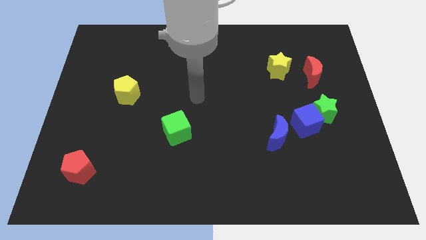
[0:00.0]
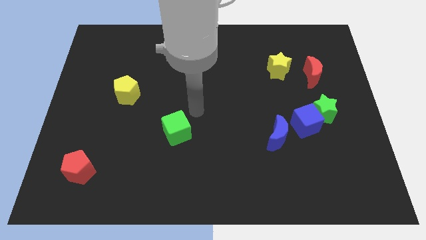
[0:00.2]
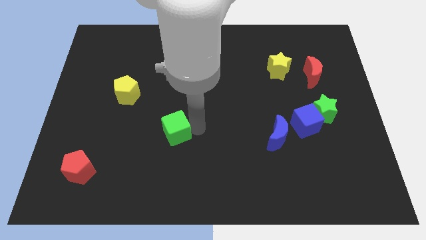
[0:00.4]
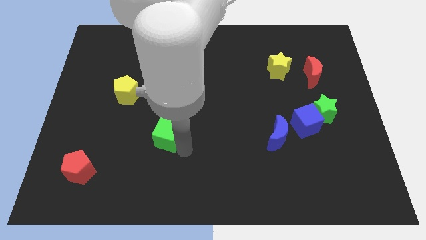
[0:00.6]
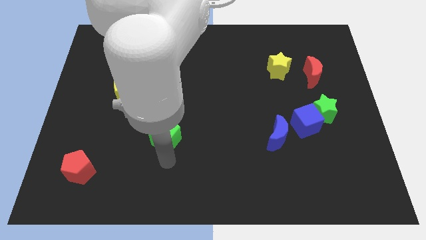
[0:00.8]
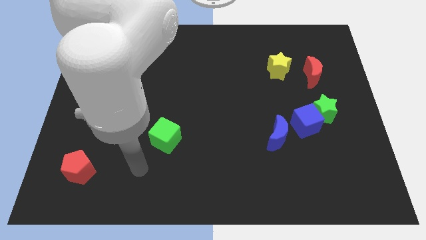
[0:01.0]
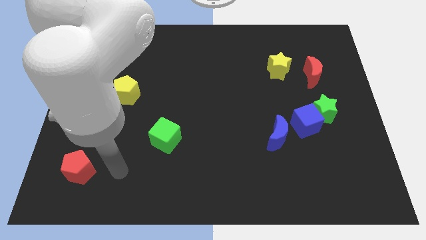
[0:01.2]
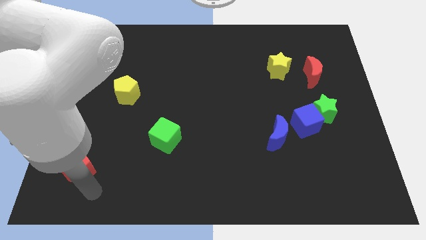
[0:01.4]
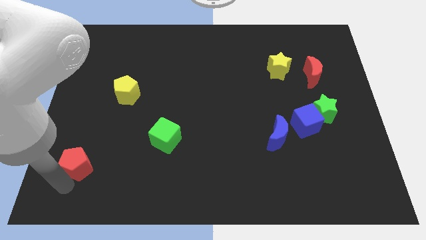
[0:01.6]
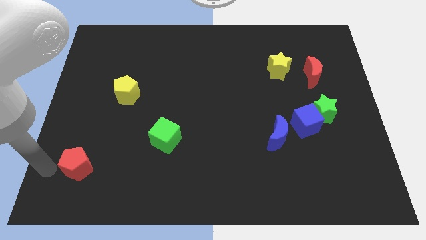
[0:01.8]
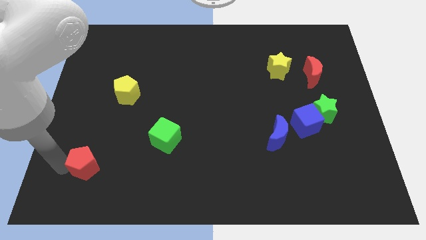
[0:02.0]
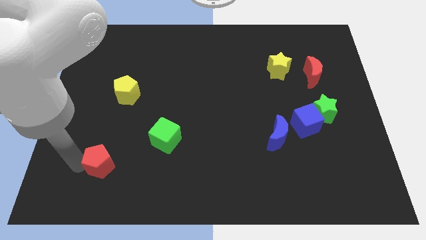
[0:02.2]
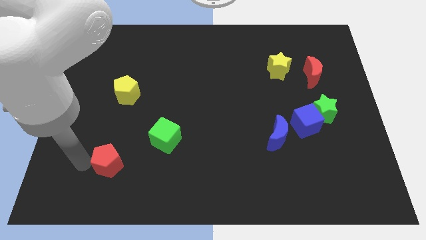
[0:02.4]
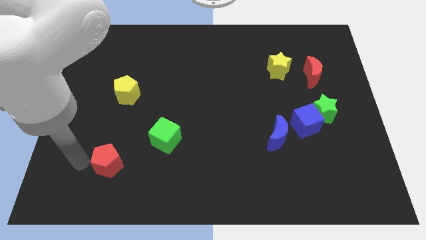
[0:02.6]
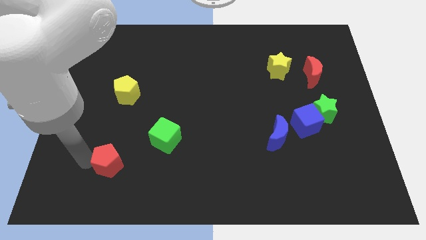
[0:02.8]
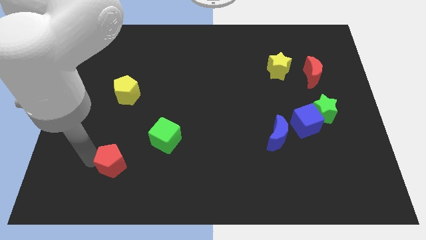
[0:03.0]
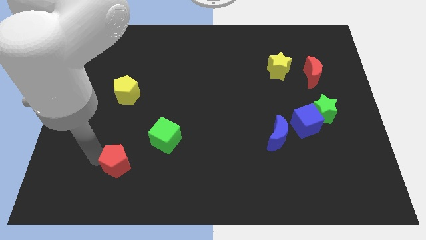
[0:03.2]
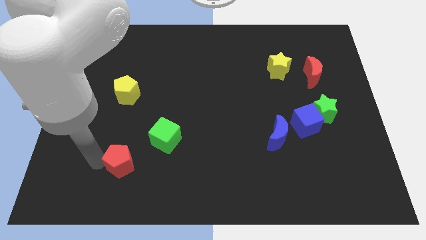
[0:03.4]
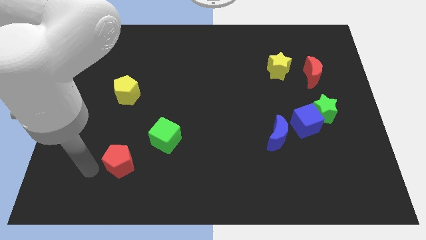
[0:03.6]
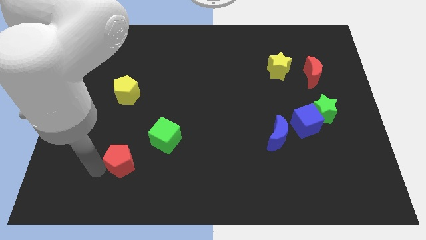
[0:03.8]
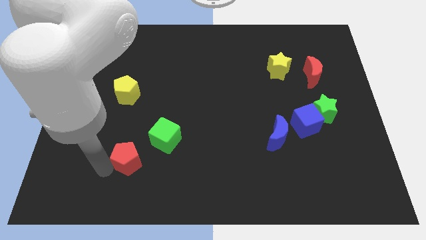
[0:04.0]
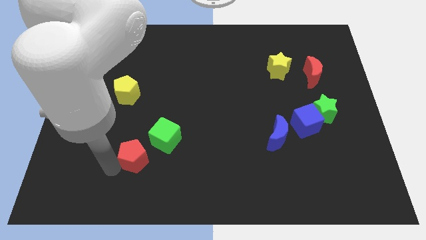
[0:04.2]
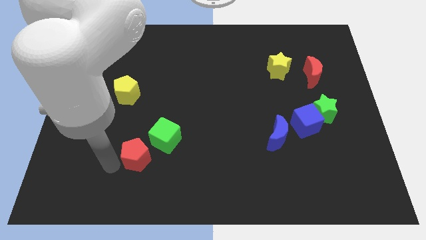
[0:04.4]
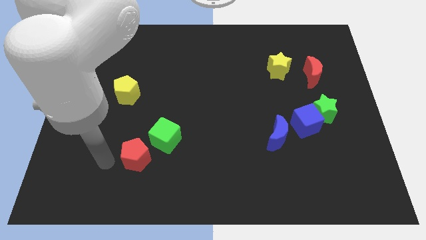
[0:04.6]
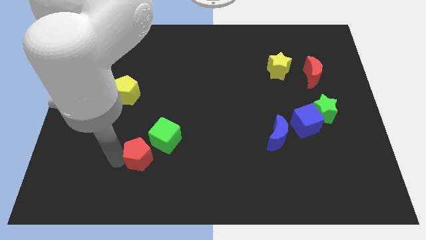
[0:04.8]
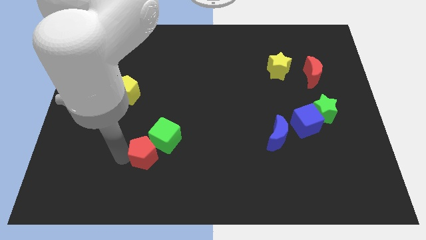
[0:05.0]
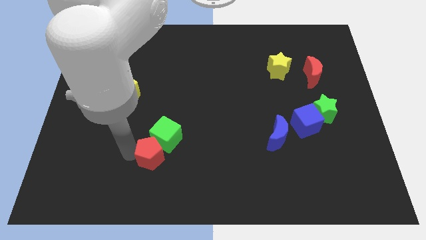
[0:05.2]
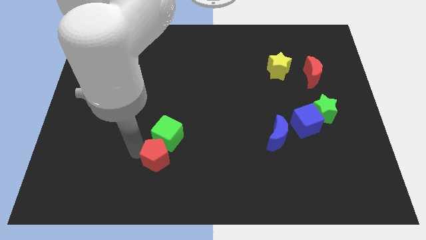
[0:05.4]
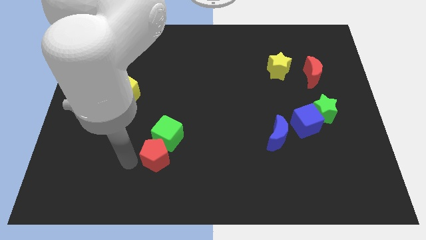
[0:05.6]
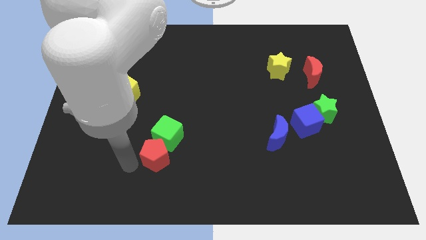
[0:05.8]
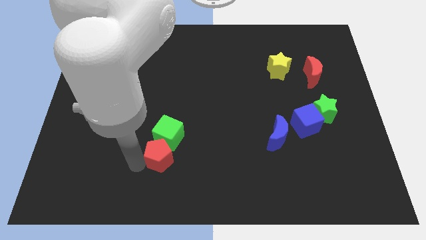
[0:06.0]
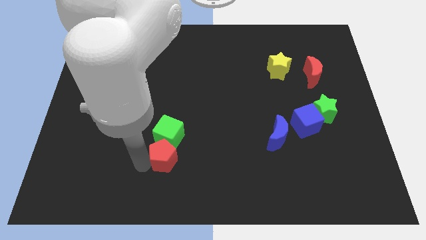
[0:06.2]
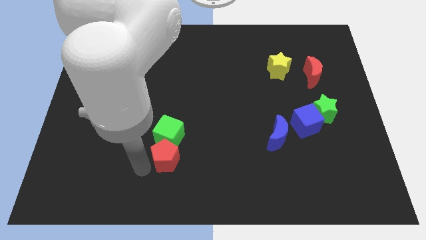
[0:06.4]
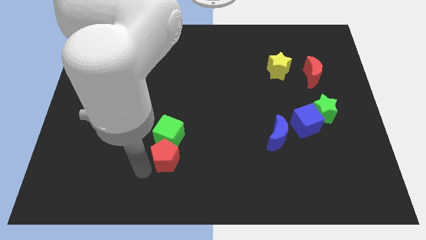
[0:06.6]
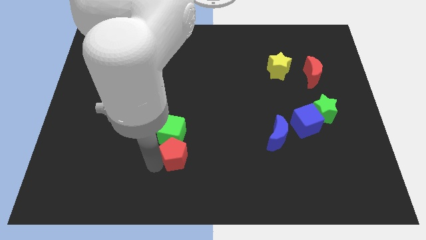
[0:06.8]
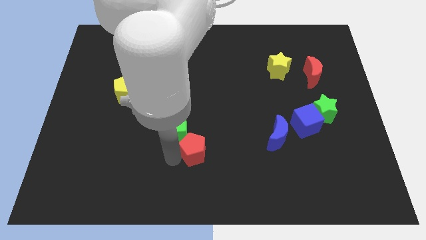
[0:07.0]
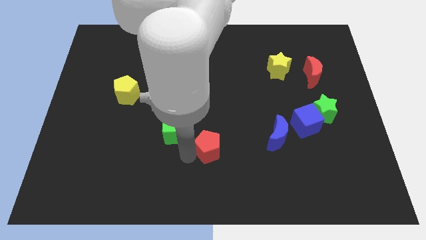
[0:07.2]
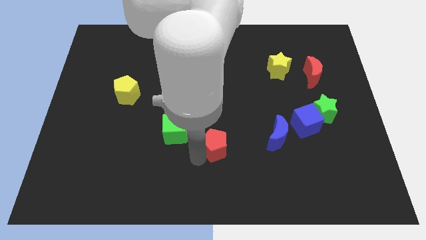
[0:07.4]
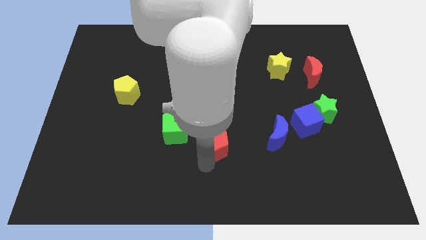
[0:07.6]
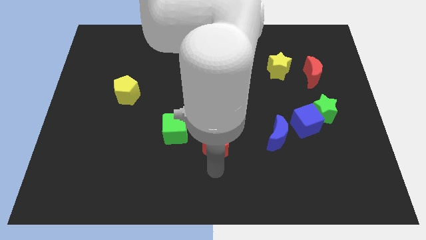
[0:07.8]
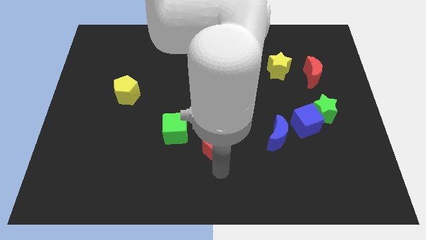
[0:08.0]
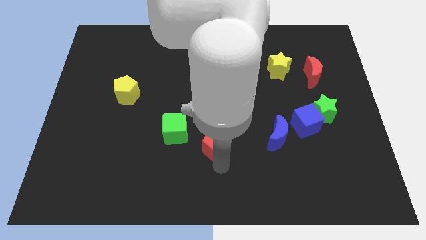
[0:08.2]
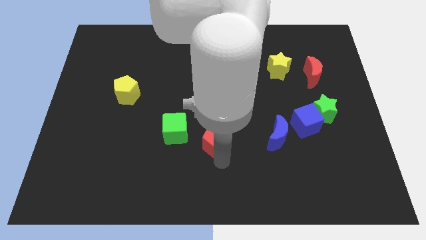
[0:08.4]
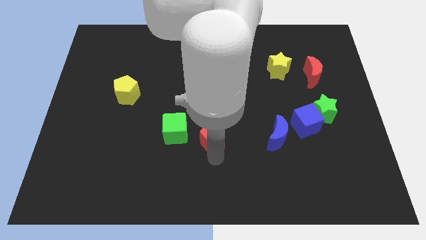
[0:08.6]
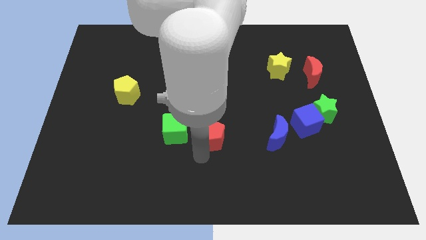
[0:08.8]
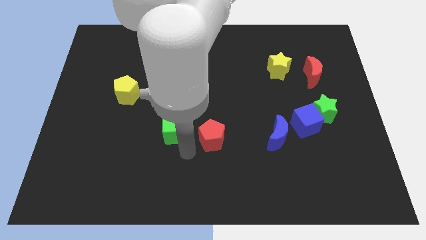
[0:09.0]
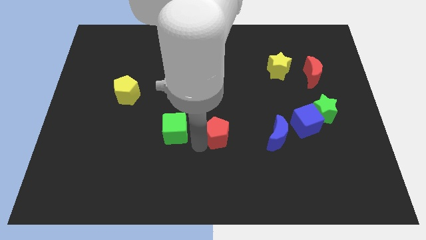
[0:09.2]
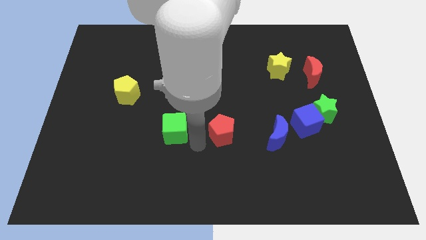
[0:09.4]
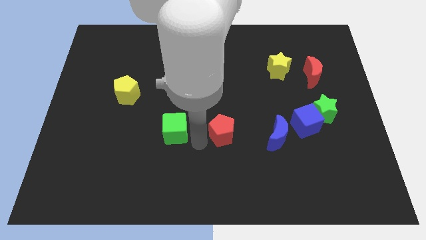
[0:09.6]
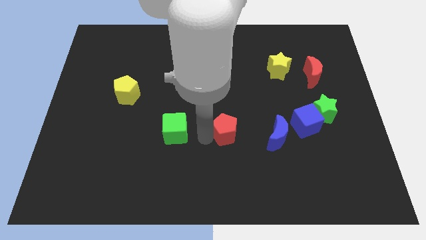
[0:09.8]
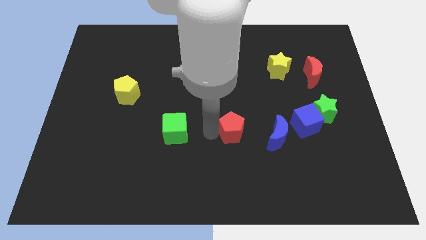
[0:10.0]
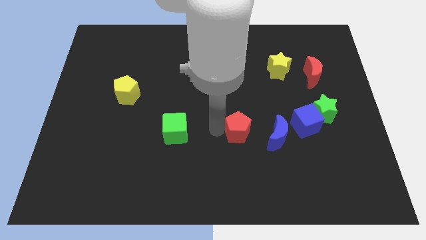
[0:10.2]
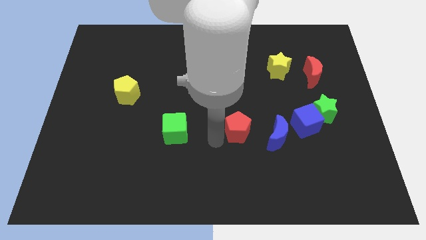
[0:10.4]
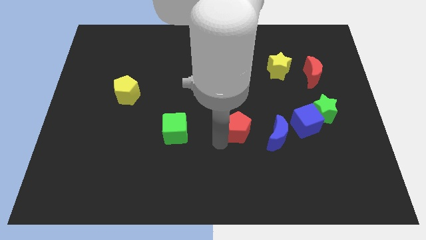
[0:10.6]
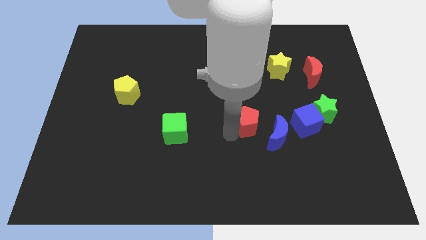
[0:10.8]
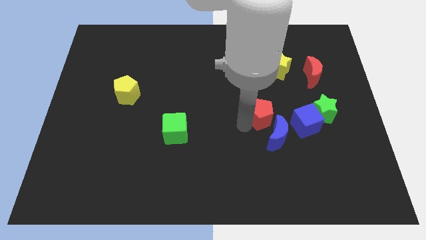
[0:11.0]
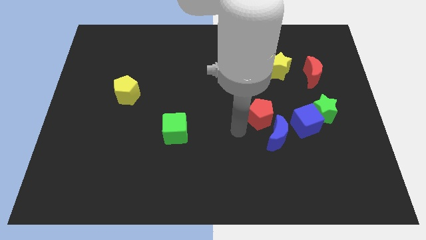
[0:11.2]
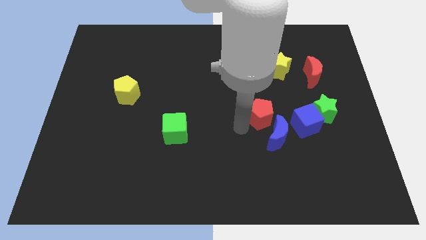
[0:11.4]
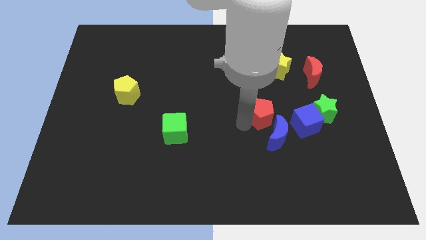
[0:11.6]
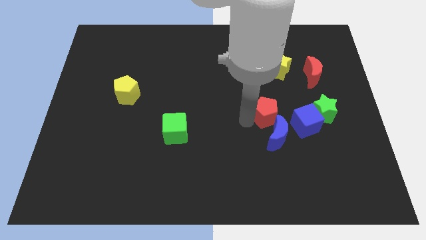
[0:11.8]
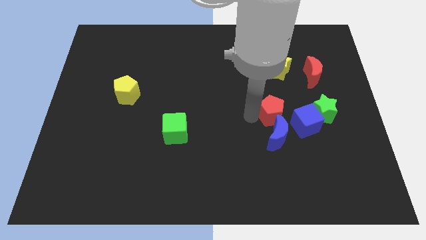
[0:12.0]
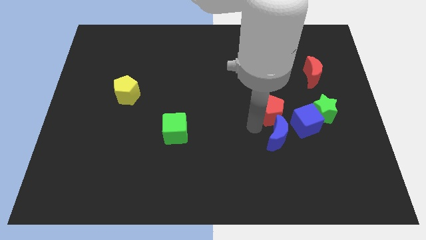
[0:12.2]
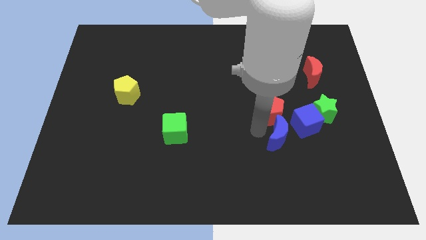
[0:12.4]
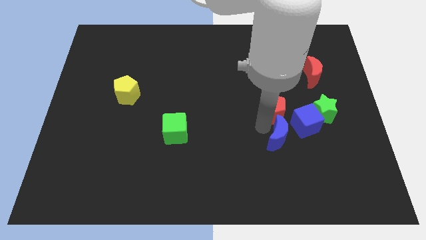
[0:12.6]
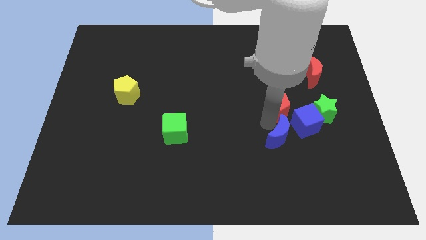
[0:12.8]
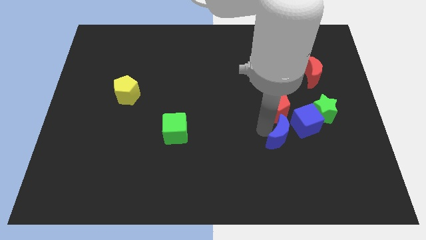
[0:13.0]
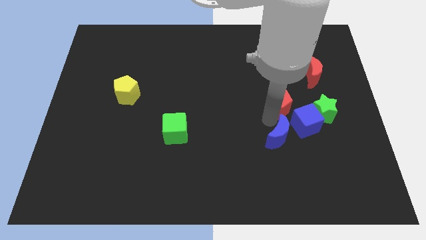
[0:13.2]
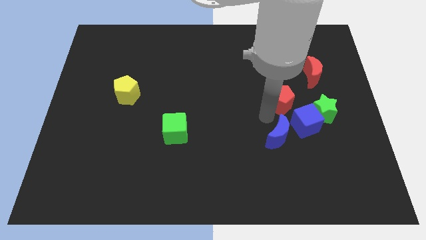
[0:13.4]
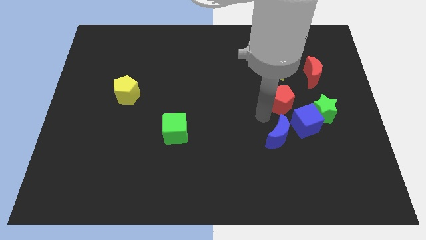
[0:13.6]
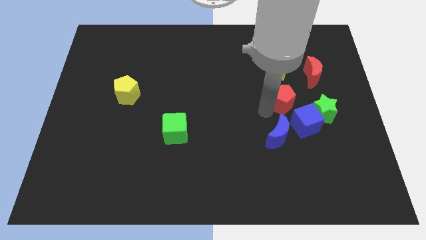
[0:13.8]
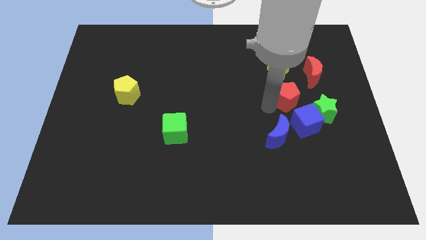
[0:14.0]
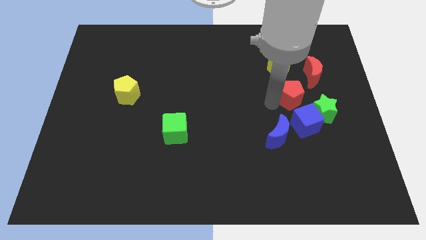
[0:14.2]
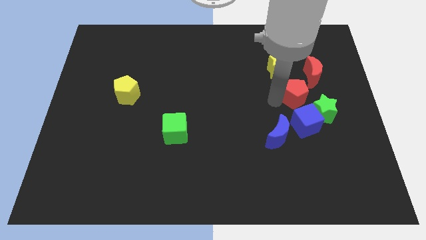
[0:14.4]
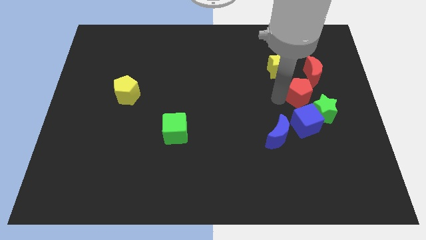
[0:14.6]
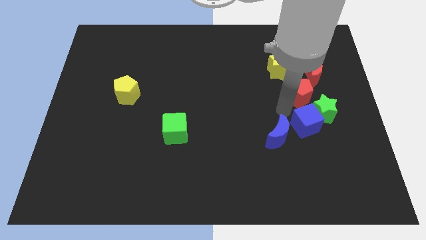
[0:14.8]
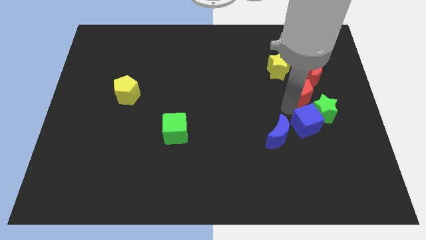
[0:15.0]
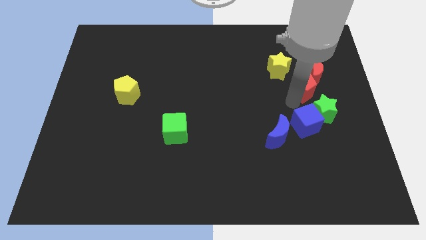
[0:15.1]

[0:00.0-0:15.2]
push the red pentagon towards the red moon
